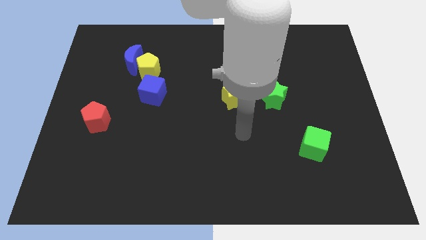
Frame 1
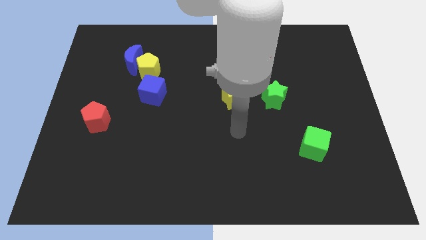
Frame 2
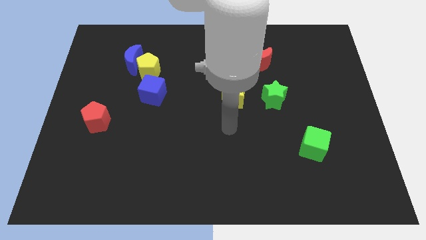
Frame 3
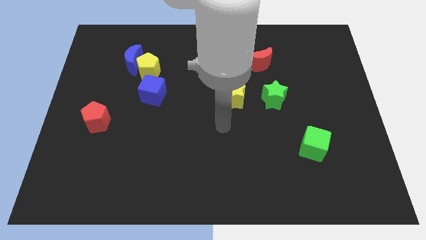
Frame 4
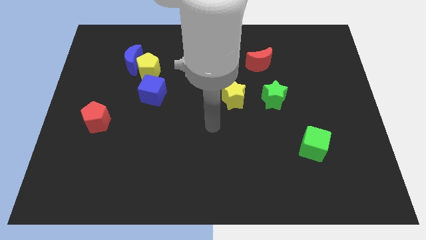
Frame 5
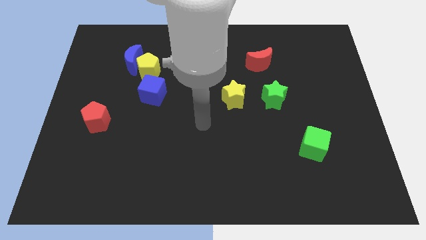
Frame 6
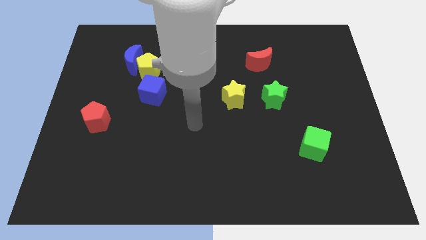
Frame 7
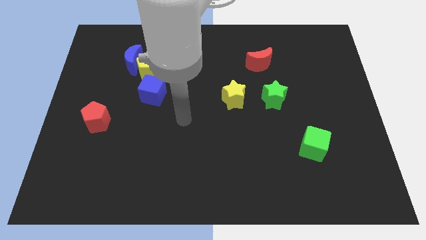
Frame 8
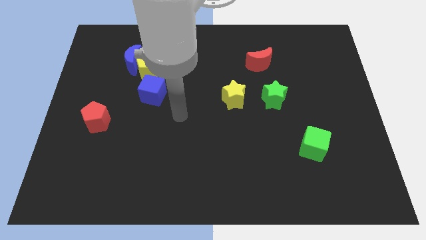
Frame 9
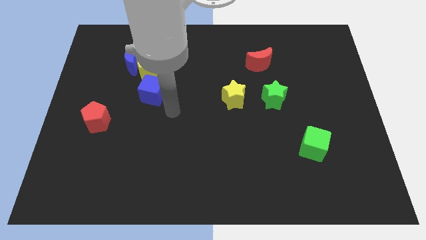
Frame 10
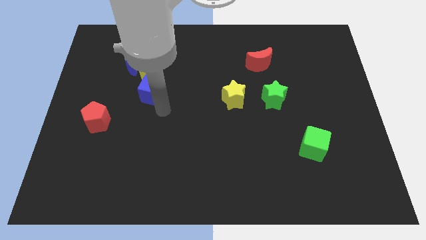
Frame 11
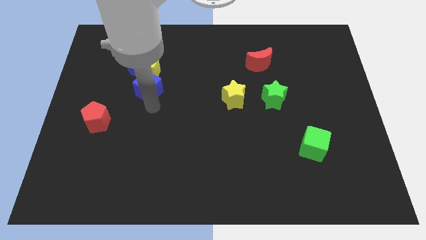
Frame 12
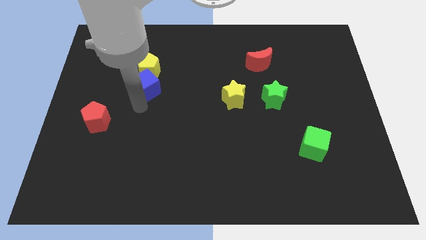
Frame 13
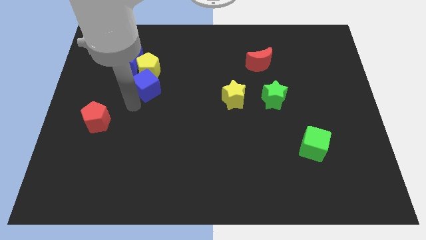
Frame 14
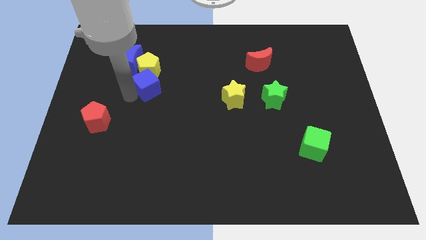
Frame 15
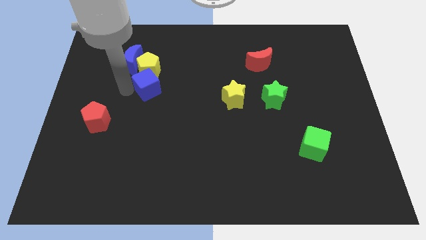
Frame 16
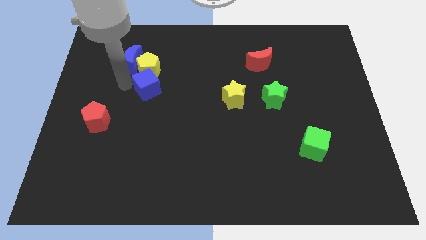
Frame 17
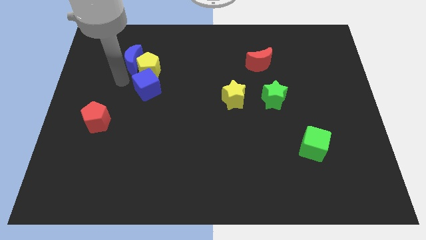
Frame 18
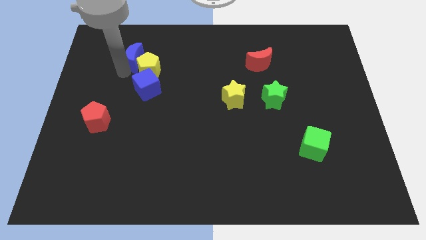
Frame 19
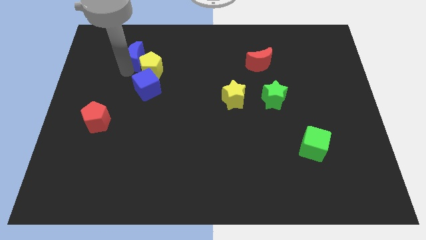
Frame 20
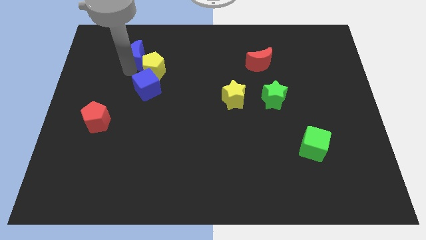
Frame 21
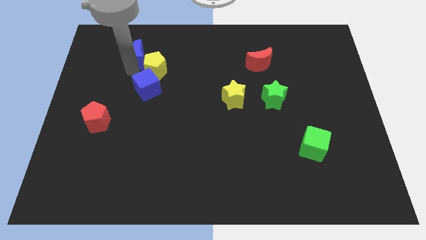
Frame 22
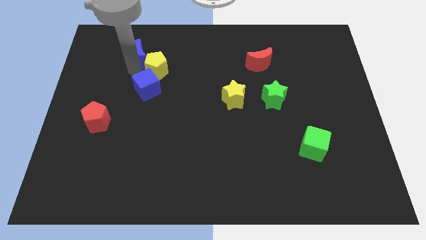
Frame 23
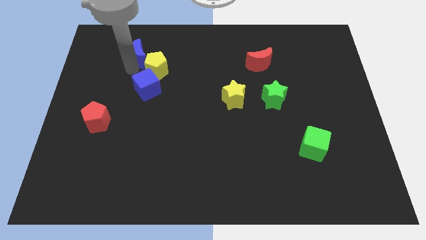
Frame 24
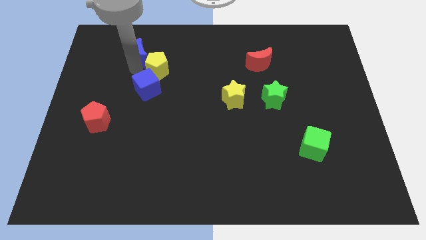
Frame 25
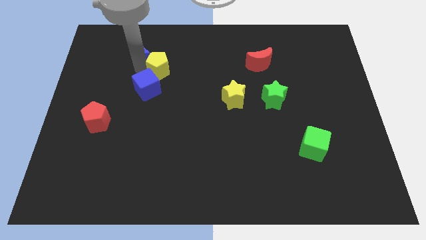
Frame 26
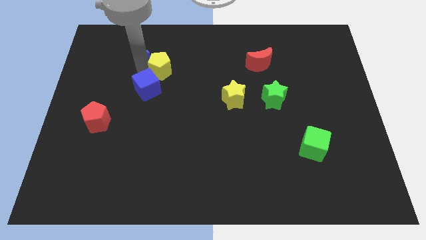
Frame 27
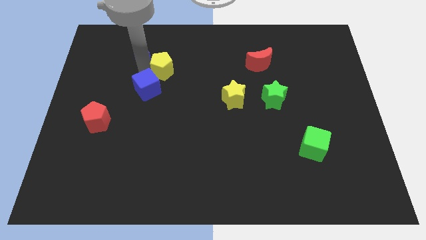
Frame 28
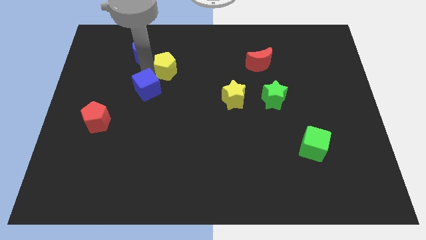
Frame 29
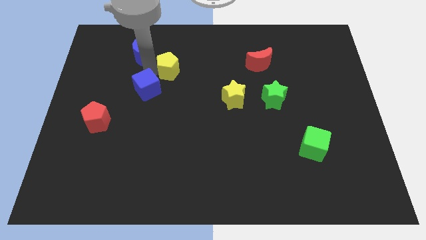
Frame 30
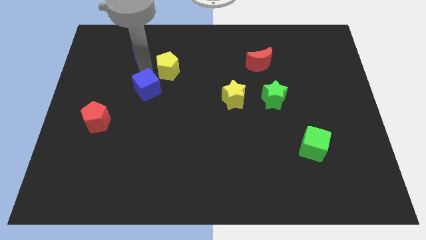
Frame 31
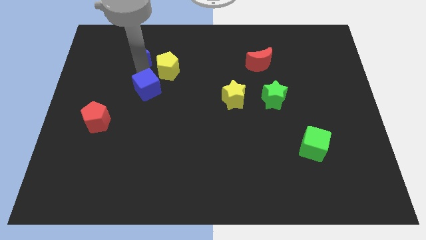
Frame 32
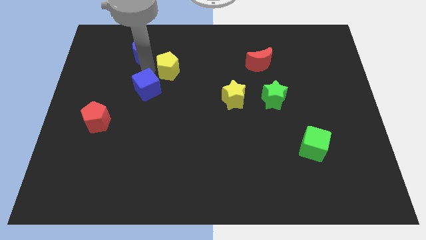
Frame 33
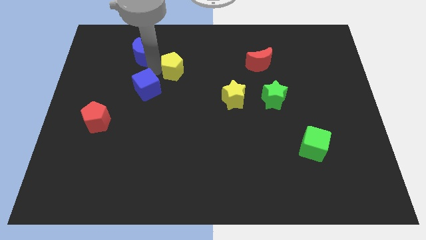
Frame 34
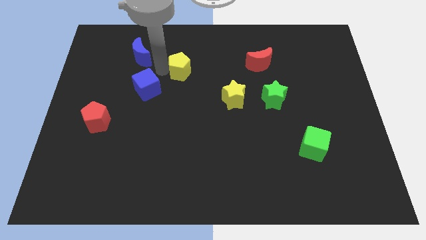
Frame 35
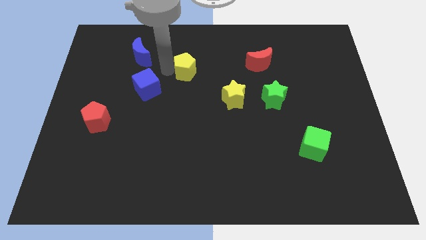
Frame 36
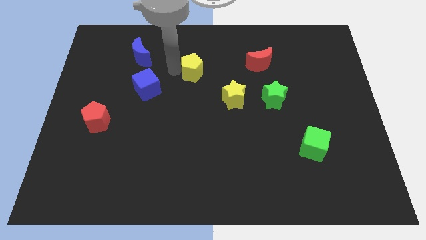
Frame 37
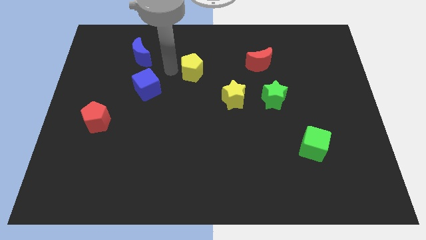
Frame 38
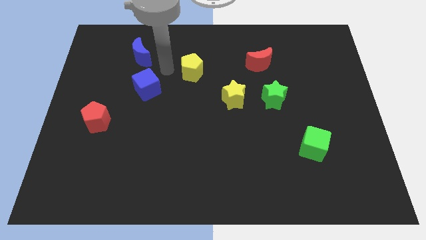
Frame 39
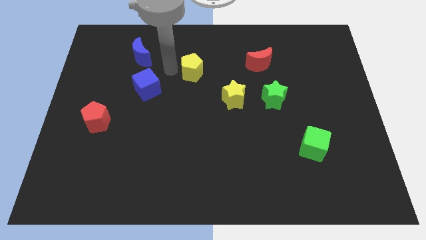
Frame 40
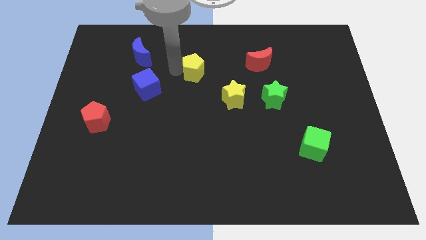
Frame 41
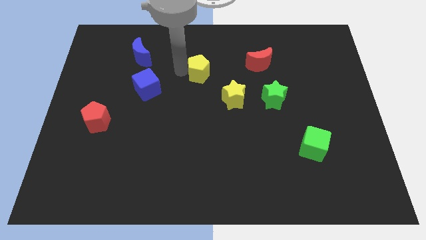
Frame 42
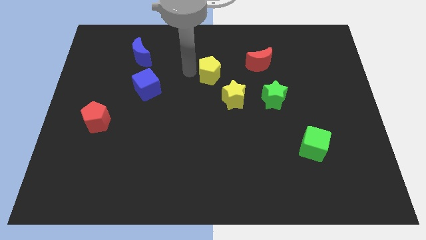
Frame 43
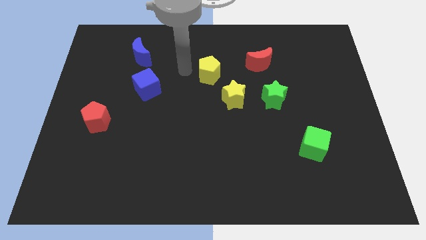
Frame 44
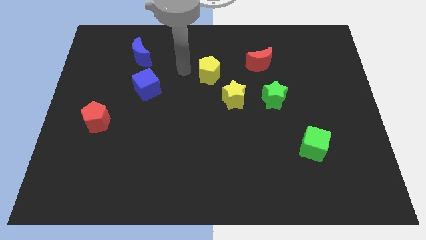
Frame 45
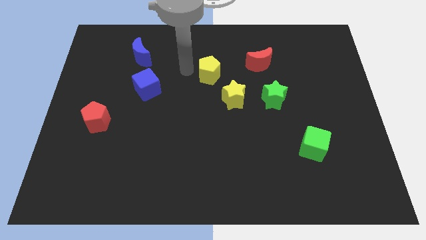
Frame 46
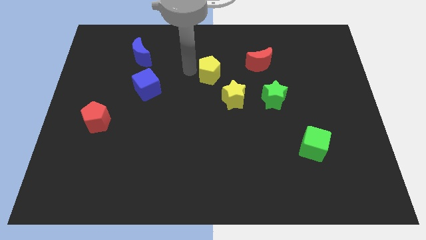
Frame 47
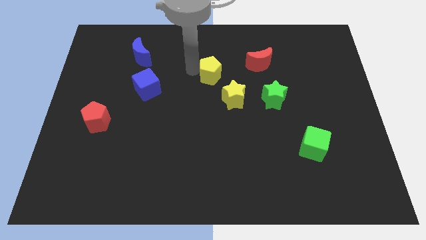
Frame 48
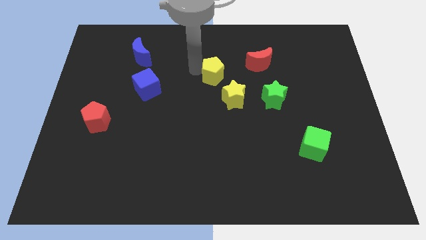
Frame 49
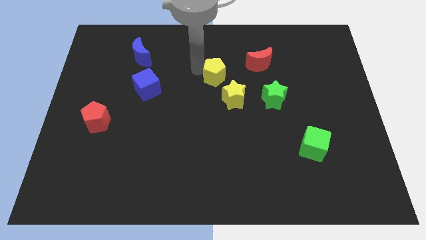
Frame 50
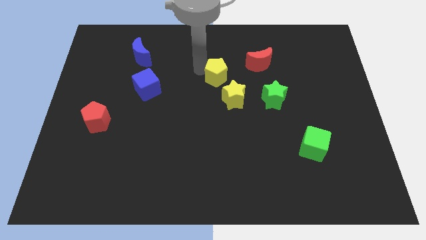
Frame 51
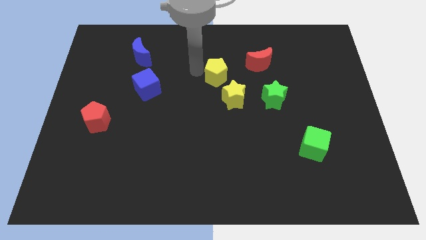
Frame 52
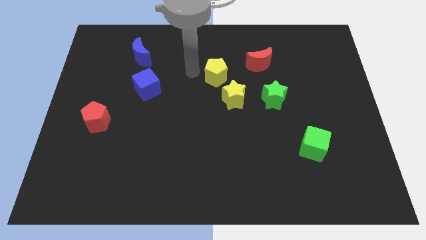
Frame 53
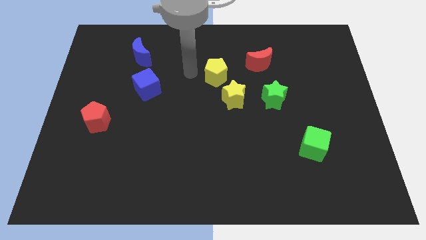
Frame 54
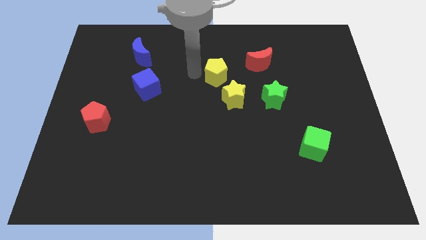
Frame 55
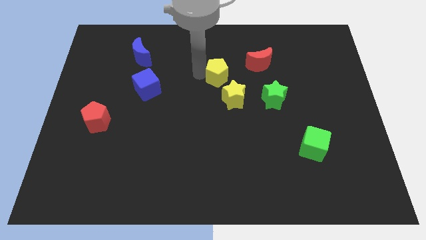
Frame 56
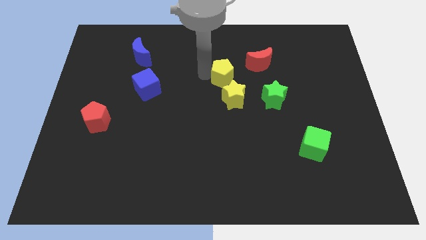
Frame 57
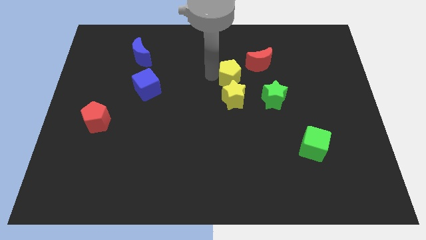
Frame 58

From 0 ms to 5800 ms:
move the yellow pentagon to the top left side of the green star

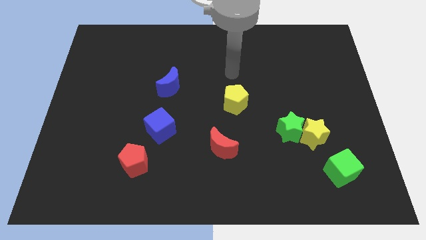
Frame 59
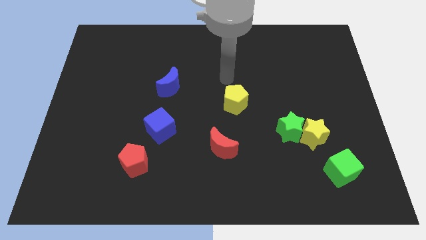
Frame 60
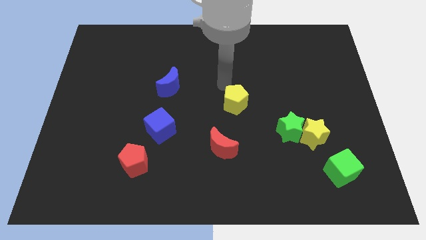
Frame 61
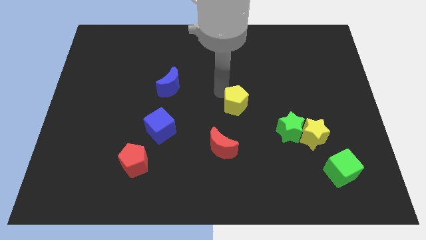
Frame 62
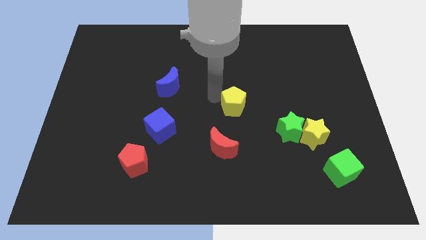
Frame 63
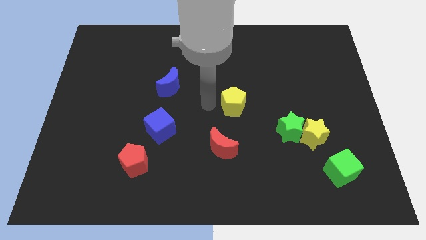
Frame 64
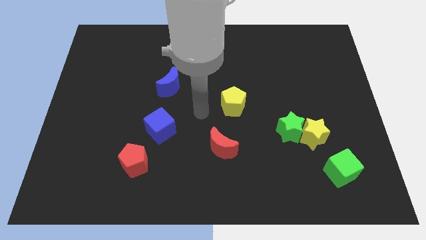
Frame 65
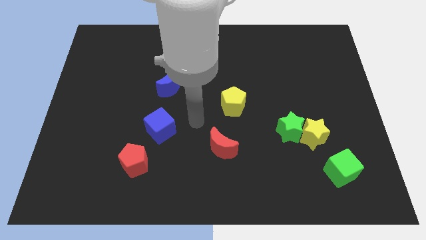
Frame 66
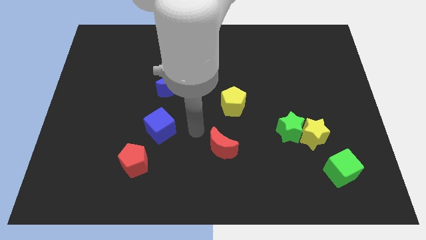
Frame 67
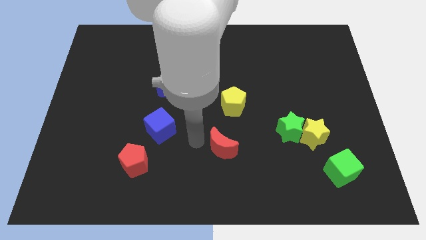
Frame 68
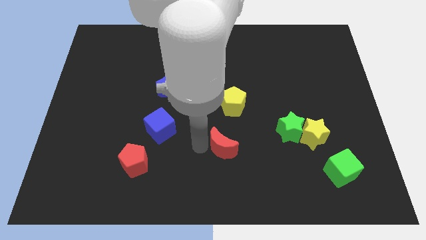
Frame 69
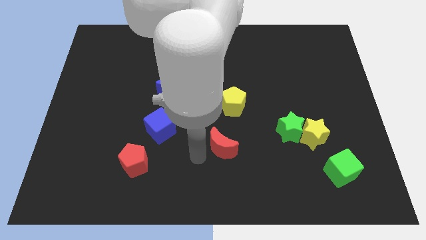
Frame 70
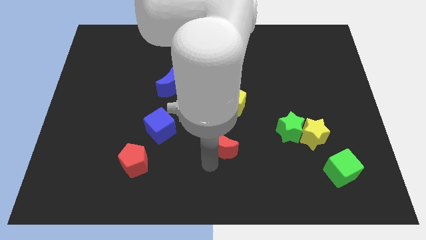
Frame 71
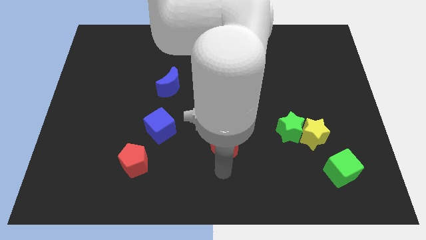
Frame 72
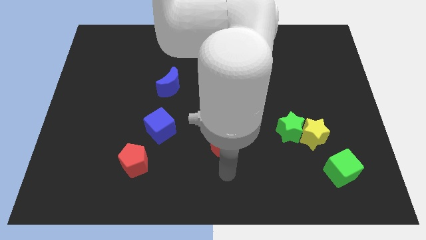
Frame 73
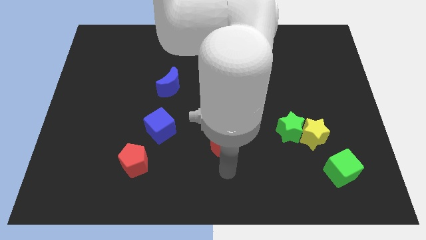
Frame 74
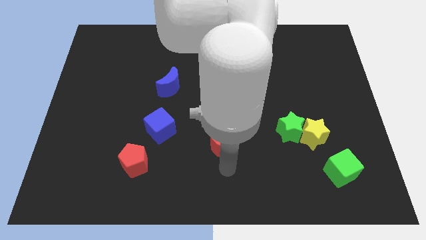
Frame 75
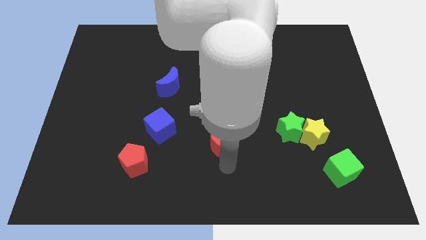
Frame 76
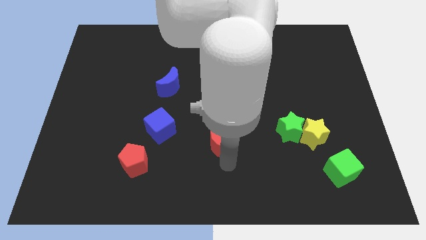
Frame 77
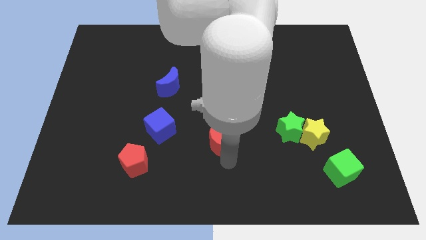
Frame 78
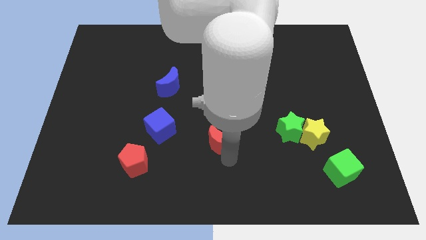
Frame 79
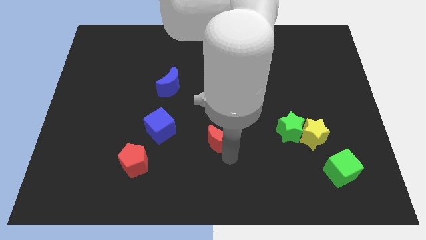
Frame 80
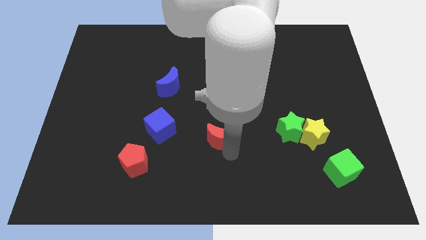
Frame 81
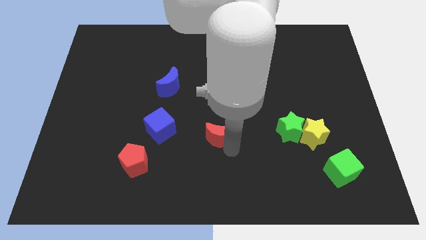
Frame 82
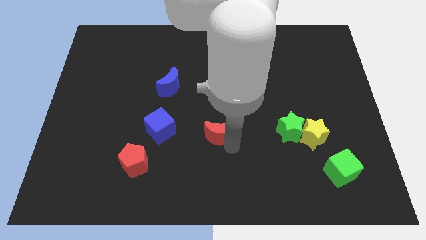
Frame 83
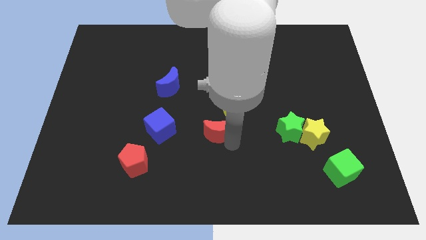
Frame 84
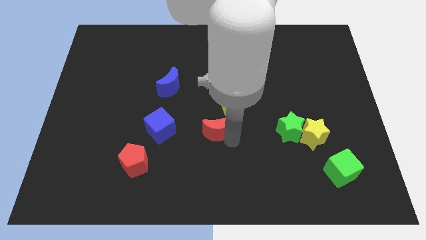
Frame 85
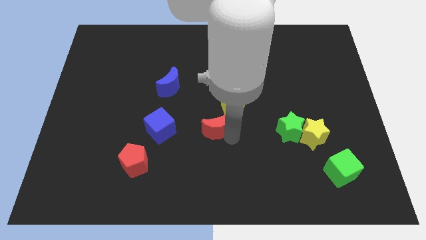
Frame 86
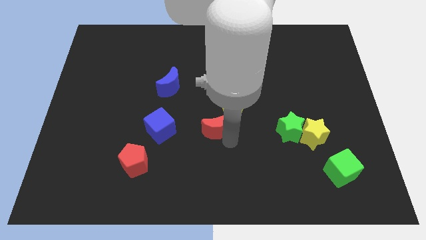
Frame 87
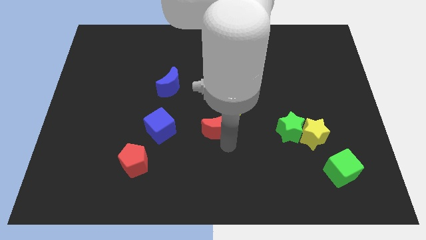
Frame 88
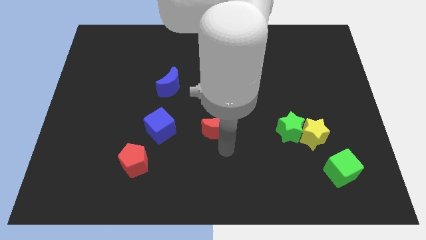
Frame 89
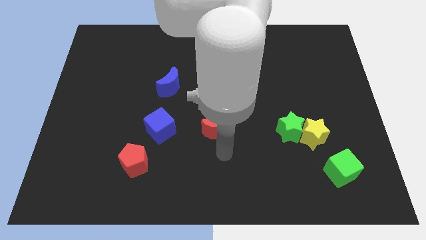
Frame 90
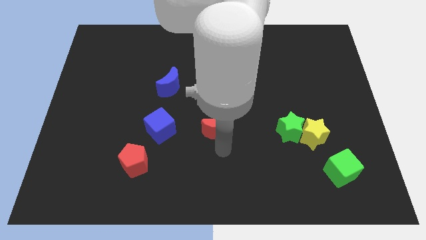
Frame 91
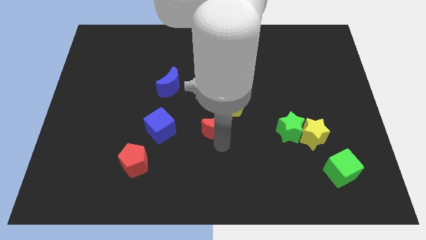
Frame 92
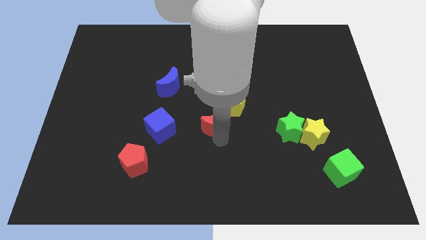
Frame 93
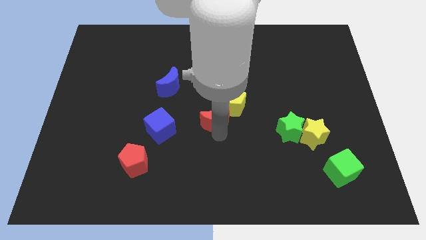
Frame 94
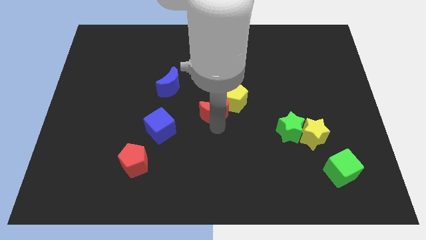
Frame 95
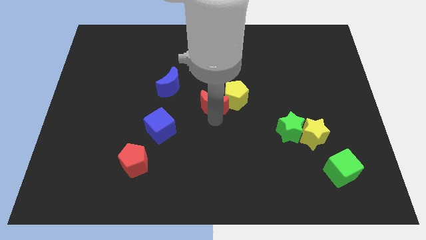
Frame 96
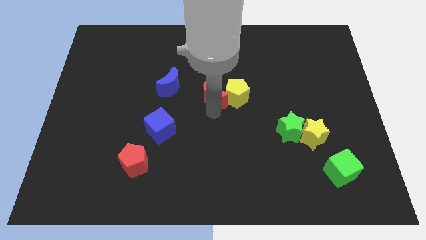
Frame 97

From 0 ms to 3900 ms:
move the red moon to the top left of the yellow pentagon
